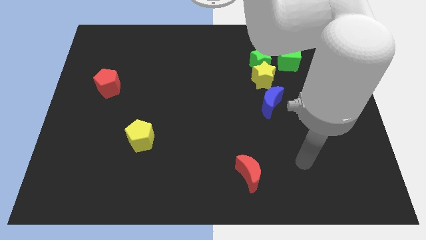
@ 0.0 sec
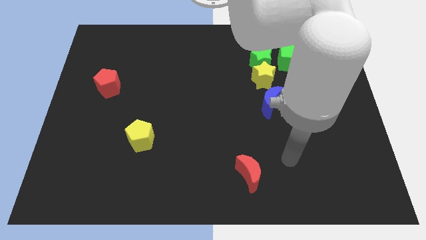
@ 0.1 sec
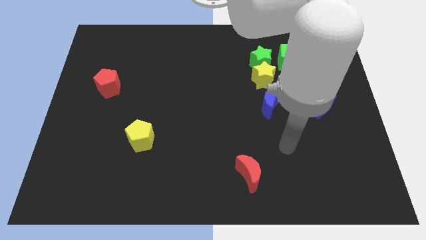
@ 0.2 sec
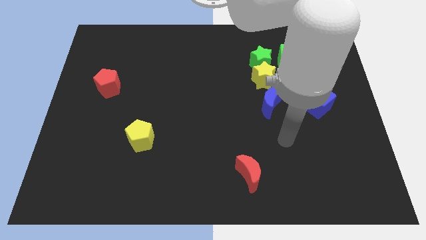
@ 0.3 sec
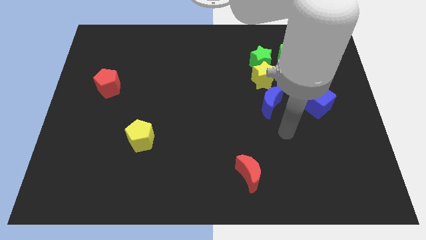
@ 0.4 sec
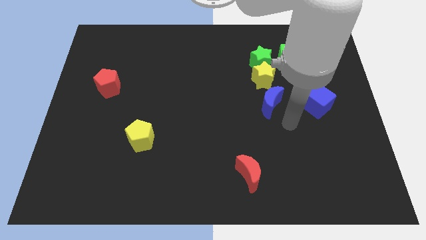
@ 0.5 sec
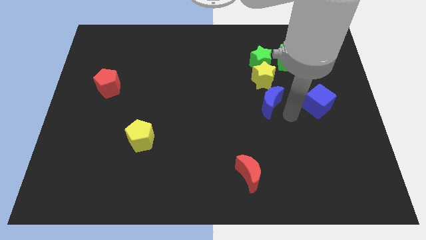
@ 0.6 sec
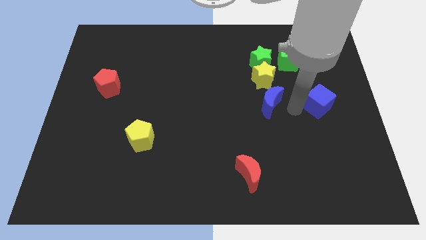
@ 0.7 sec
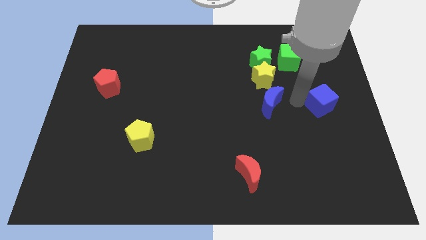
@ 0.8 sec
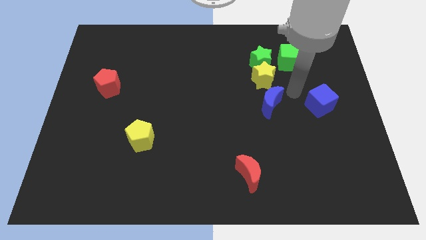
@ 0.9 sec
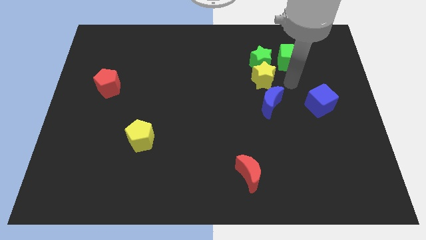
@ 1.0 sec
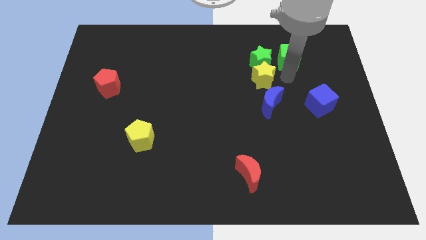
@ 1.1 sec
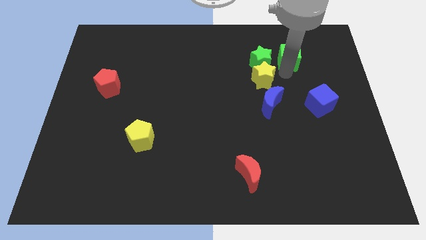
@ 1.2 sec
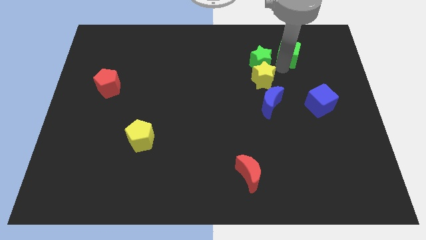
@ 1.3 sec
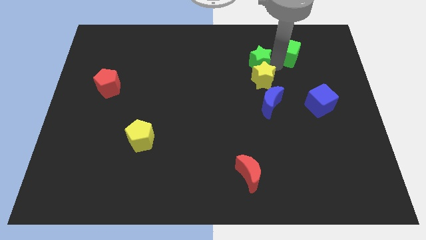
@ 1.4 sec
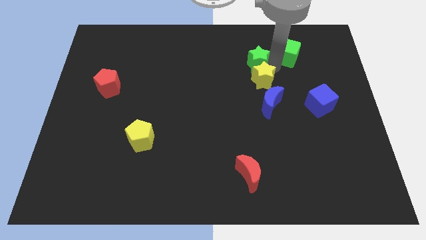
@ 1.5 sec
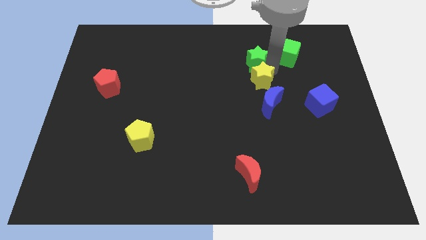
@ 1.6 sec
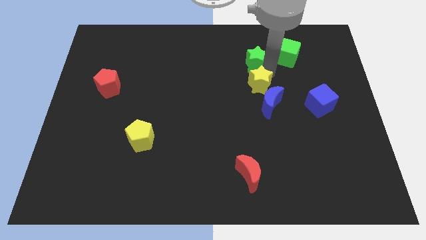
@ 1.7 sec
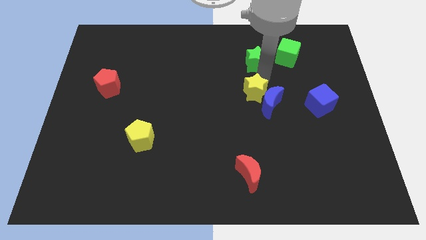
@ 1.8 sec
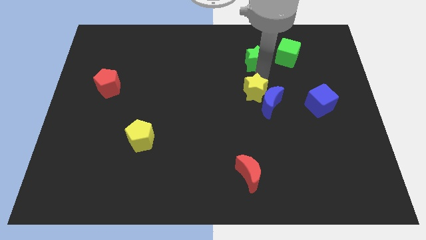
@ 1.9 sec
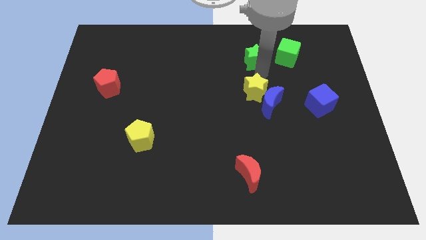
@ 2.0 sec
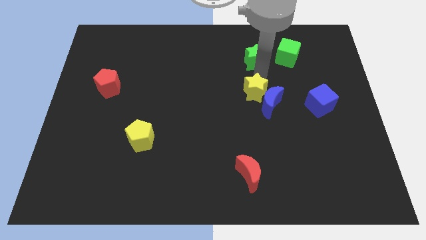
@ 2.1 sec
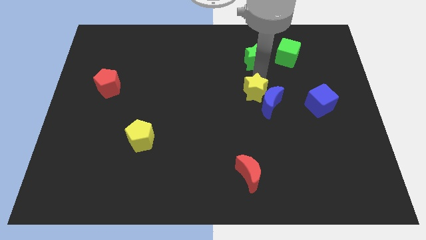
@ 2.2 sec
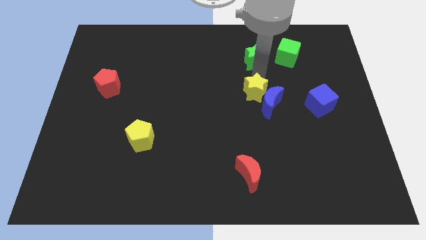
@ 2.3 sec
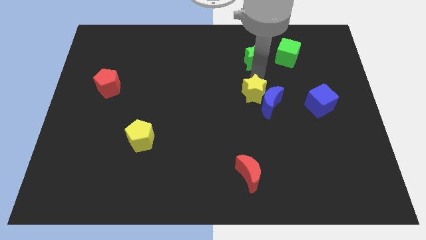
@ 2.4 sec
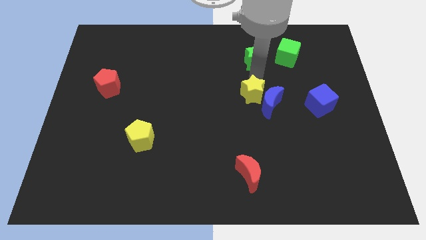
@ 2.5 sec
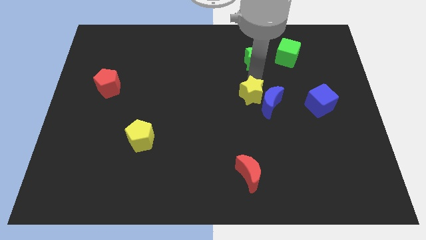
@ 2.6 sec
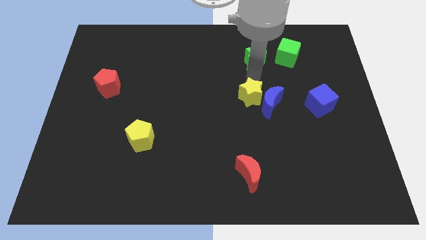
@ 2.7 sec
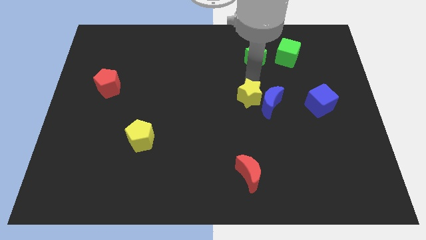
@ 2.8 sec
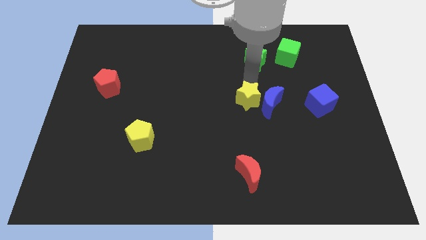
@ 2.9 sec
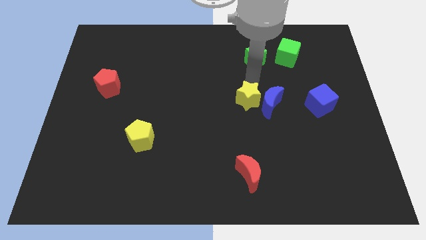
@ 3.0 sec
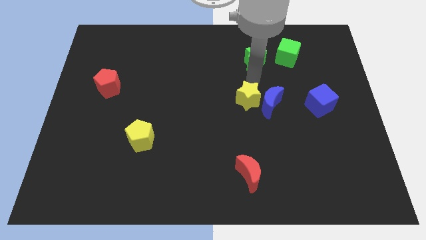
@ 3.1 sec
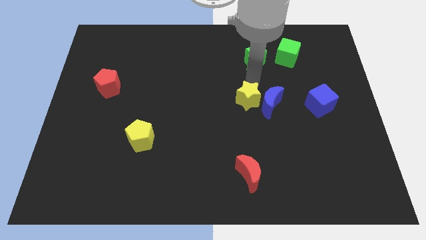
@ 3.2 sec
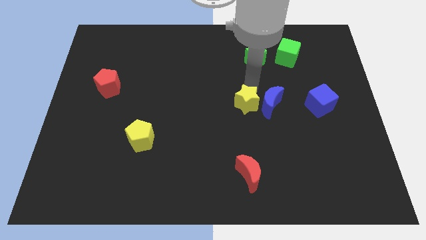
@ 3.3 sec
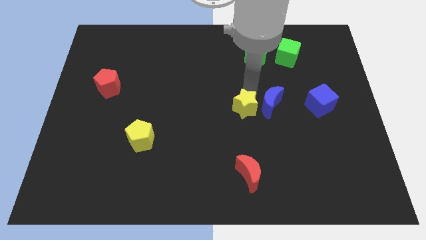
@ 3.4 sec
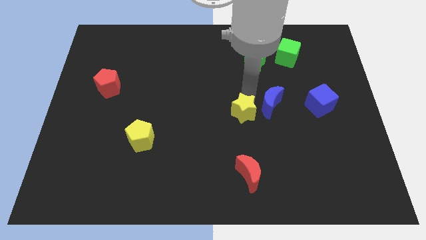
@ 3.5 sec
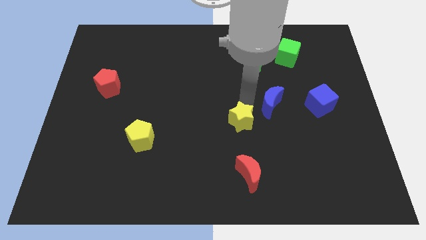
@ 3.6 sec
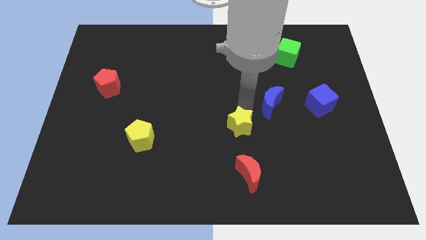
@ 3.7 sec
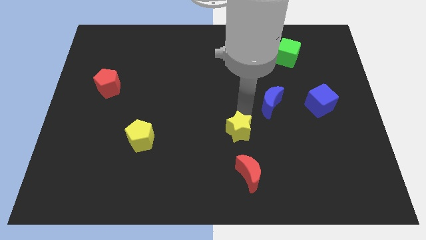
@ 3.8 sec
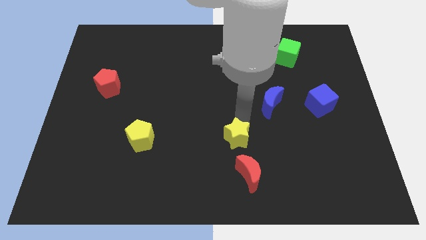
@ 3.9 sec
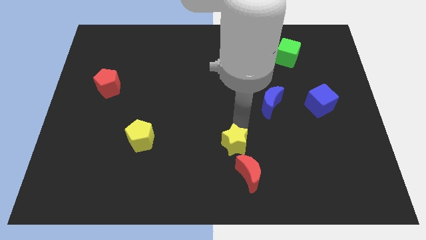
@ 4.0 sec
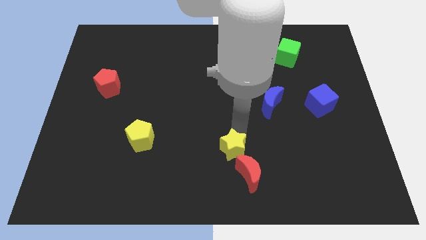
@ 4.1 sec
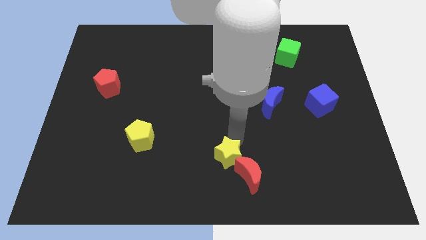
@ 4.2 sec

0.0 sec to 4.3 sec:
move the yellow star to the bottom

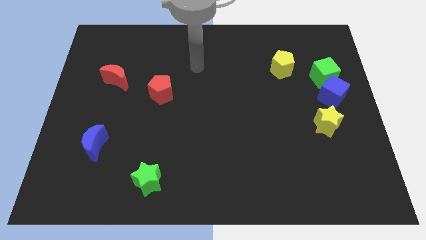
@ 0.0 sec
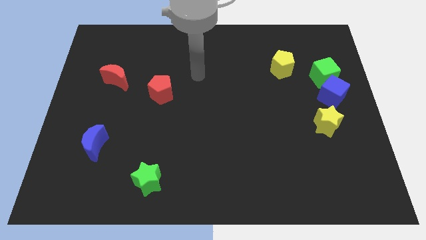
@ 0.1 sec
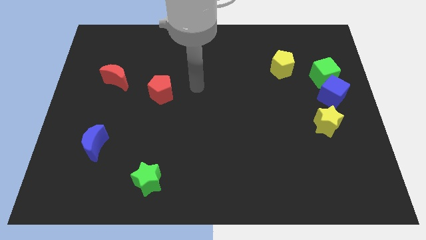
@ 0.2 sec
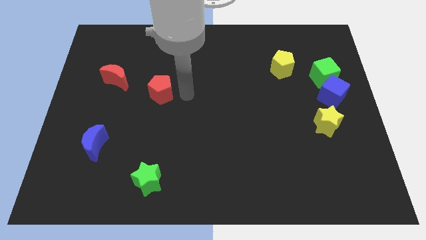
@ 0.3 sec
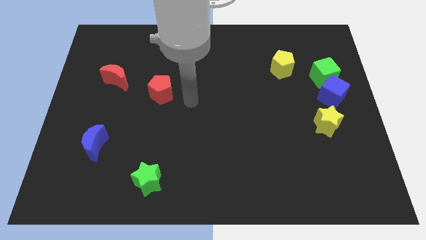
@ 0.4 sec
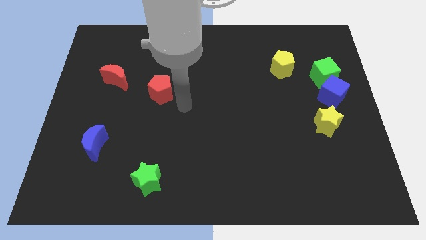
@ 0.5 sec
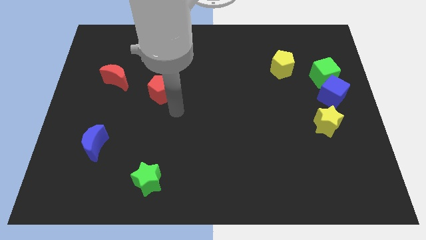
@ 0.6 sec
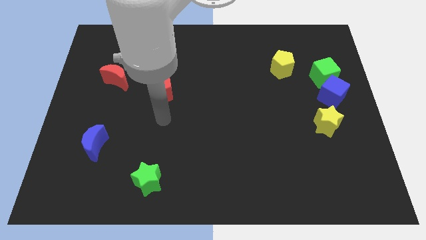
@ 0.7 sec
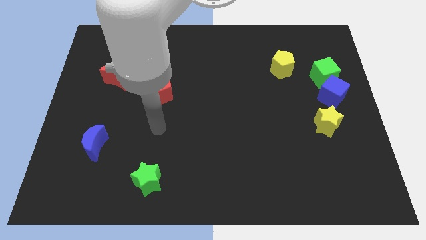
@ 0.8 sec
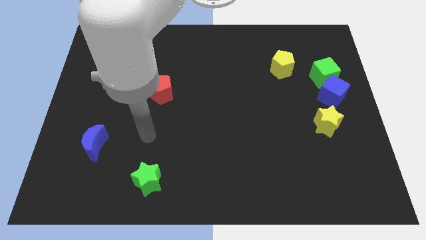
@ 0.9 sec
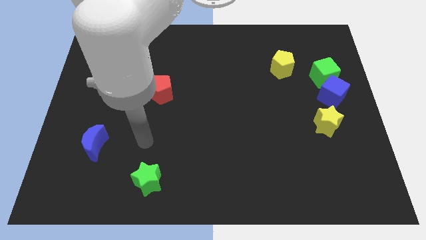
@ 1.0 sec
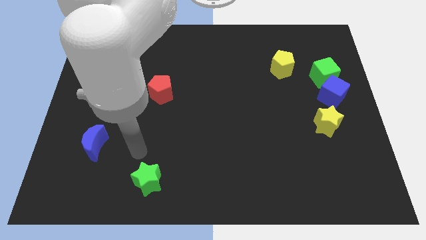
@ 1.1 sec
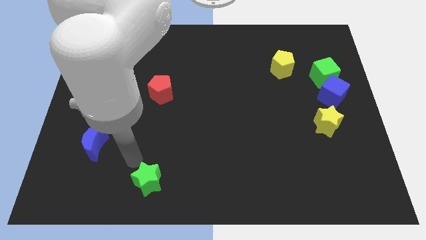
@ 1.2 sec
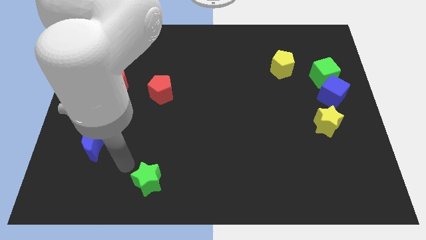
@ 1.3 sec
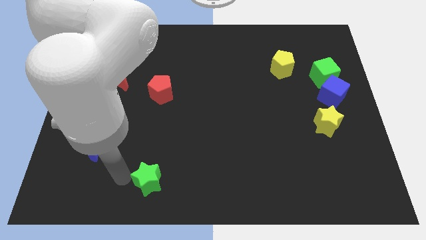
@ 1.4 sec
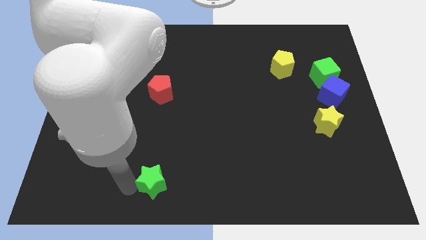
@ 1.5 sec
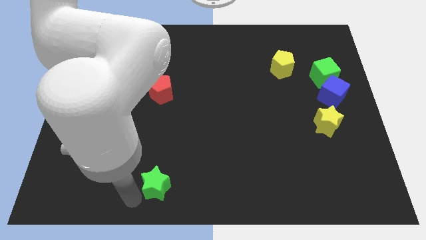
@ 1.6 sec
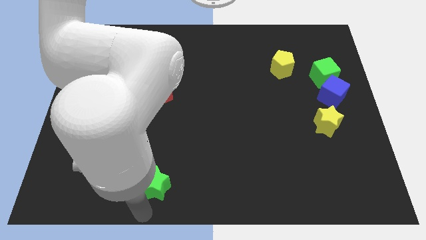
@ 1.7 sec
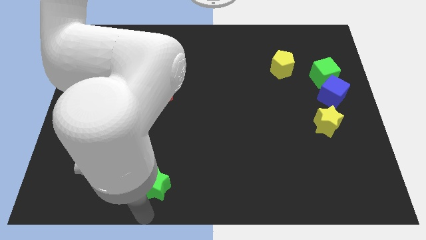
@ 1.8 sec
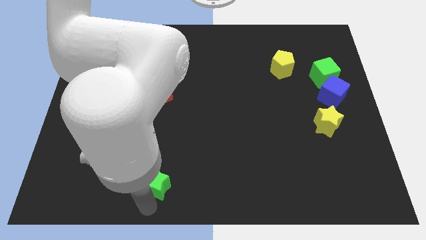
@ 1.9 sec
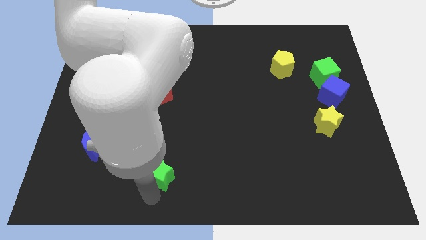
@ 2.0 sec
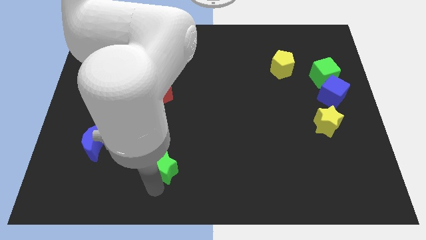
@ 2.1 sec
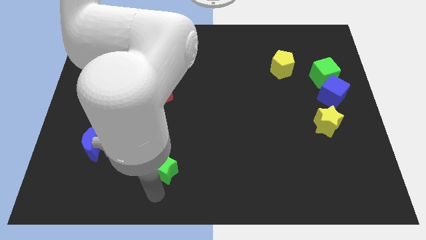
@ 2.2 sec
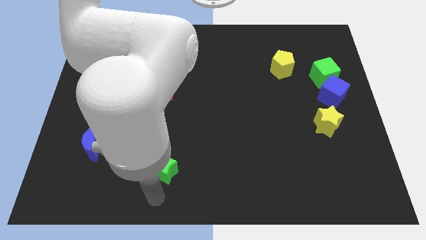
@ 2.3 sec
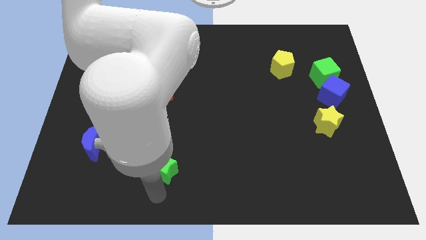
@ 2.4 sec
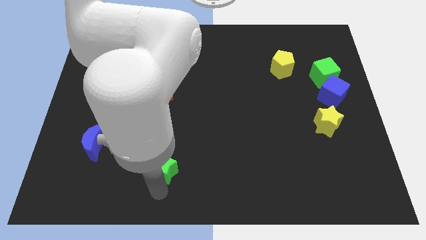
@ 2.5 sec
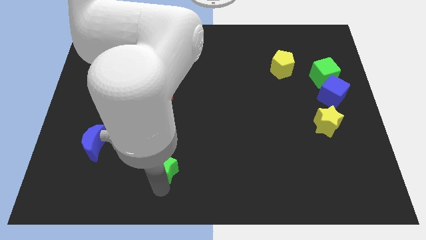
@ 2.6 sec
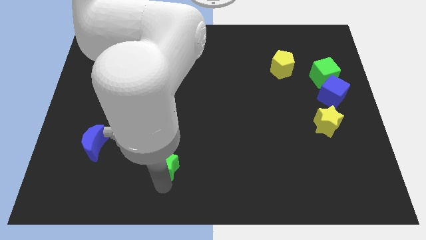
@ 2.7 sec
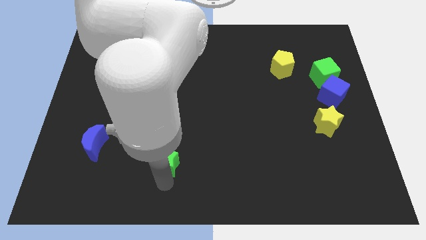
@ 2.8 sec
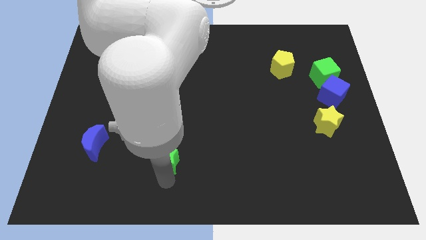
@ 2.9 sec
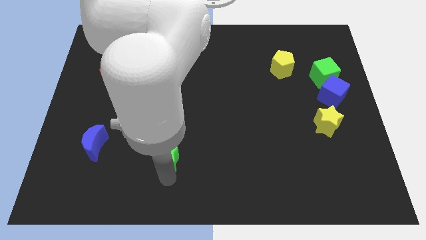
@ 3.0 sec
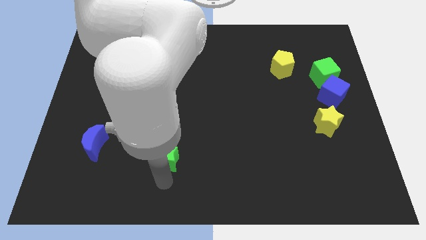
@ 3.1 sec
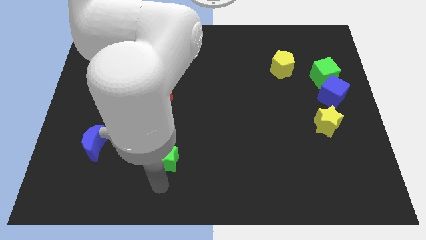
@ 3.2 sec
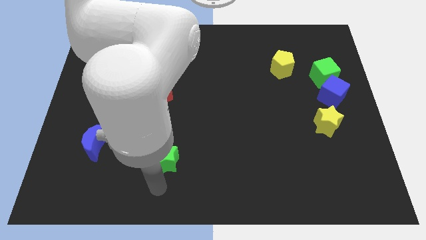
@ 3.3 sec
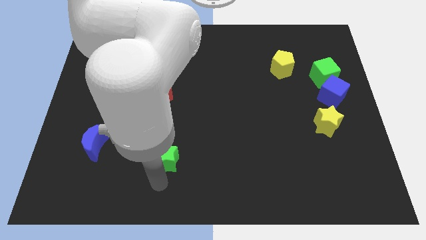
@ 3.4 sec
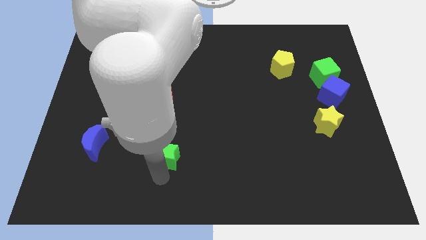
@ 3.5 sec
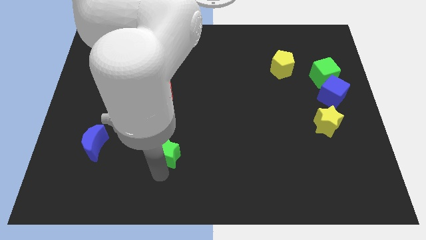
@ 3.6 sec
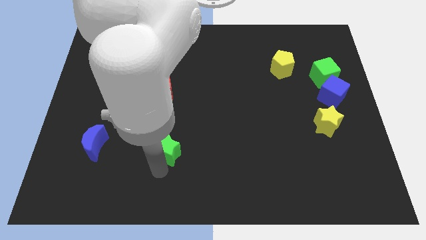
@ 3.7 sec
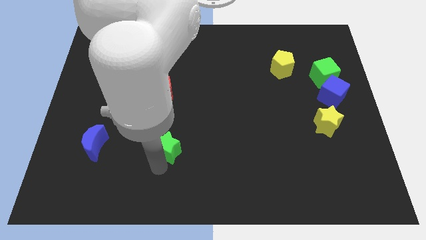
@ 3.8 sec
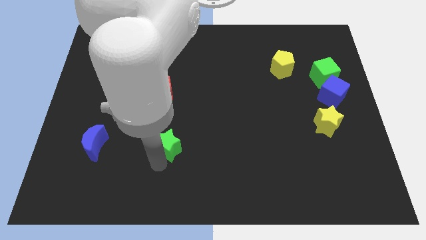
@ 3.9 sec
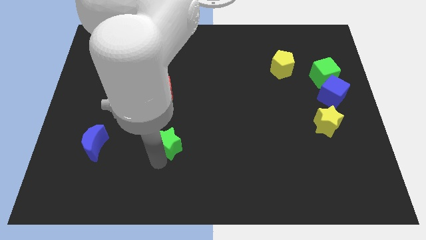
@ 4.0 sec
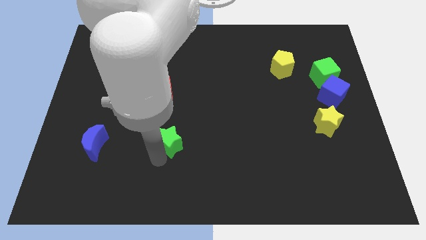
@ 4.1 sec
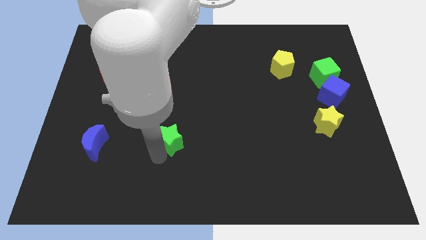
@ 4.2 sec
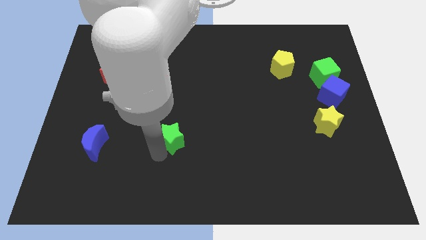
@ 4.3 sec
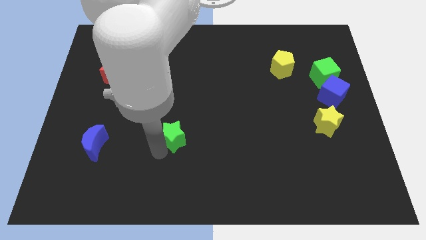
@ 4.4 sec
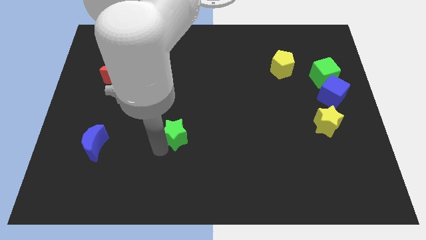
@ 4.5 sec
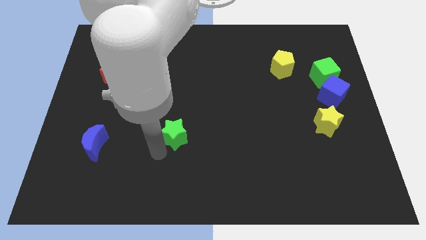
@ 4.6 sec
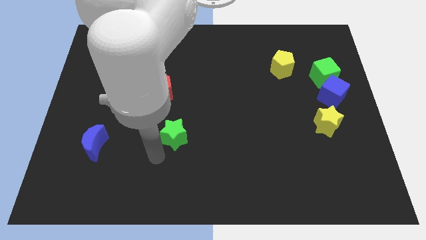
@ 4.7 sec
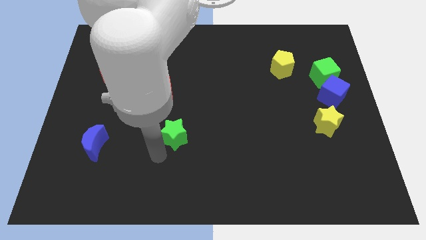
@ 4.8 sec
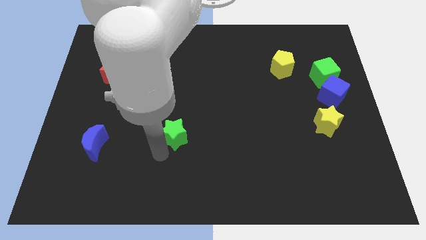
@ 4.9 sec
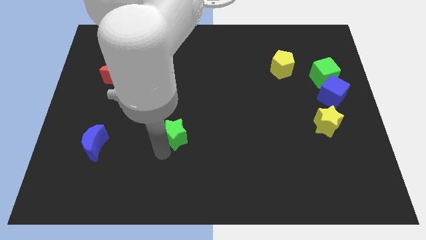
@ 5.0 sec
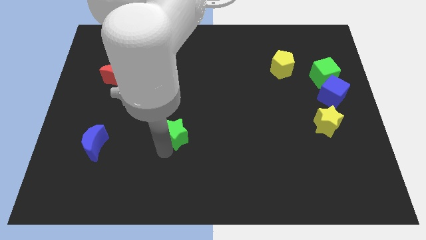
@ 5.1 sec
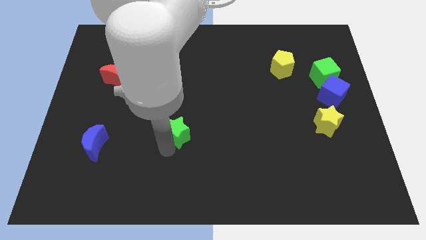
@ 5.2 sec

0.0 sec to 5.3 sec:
slide the green star to the middle
